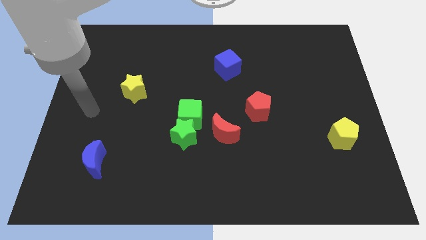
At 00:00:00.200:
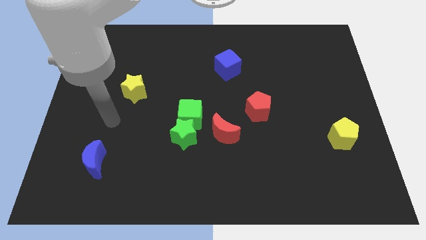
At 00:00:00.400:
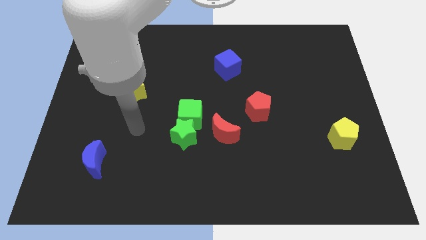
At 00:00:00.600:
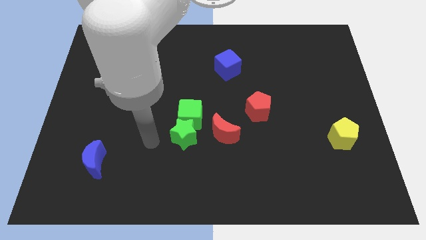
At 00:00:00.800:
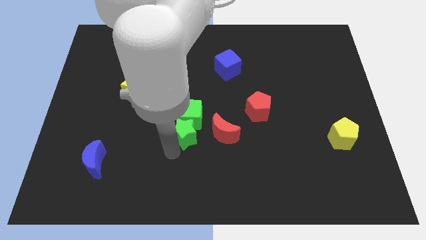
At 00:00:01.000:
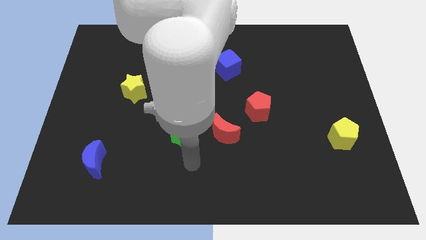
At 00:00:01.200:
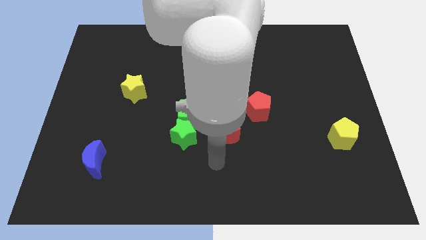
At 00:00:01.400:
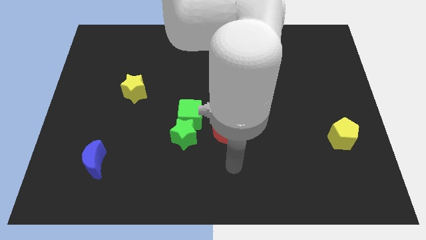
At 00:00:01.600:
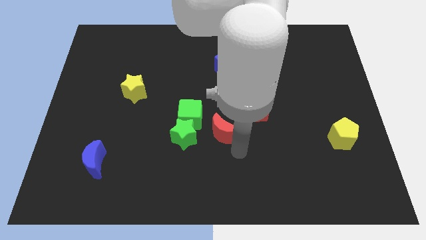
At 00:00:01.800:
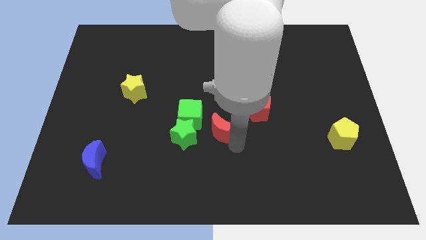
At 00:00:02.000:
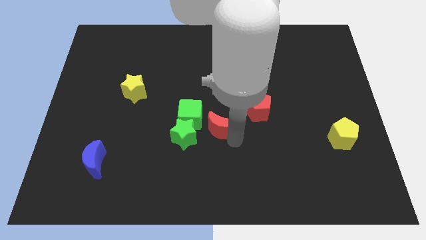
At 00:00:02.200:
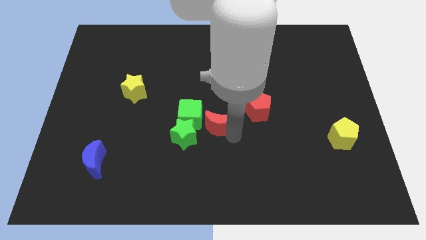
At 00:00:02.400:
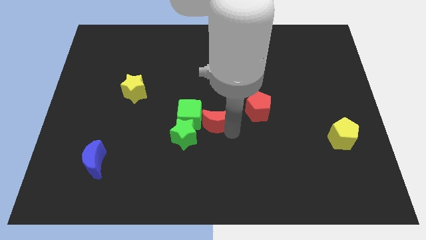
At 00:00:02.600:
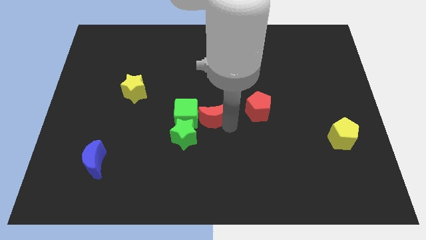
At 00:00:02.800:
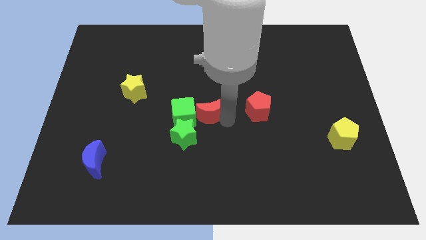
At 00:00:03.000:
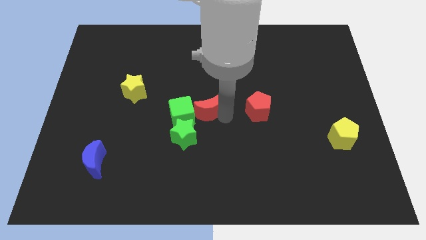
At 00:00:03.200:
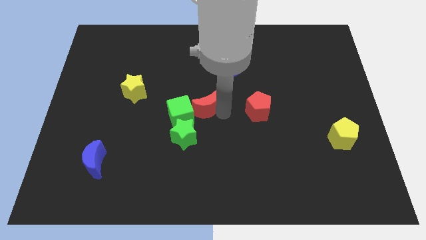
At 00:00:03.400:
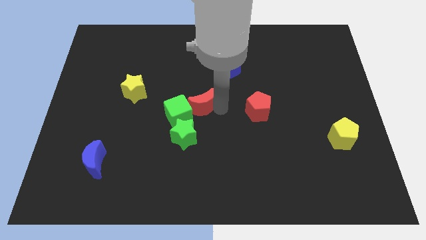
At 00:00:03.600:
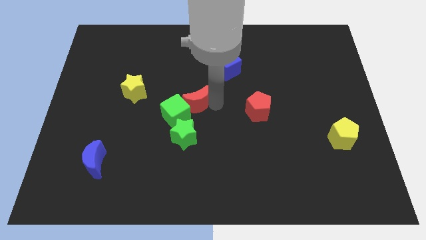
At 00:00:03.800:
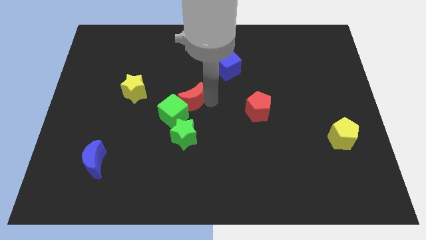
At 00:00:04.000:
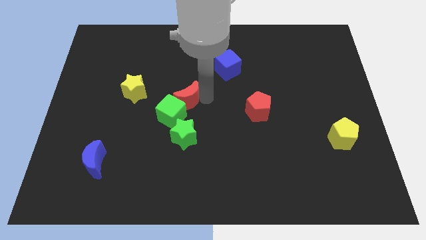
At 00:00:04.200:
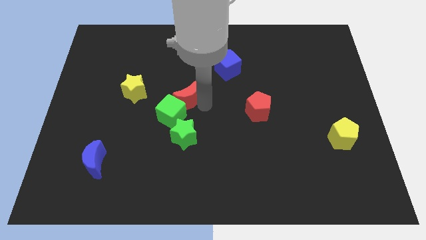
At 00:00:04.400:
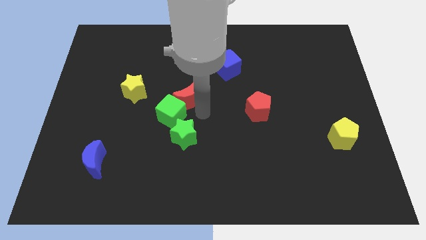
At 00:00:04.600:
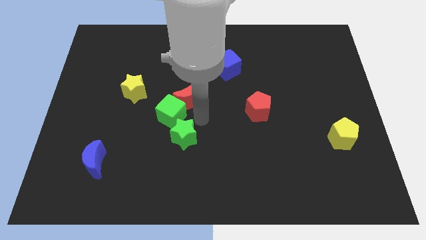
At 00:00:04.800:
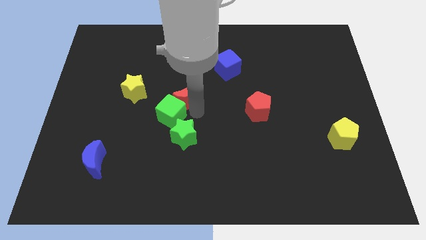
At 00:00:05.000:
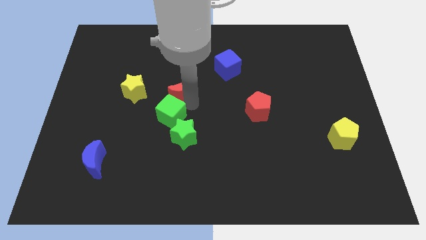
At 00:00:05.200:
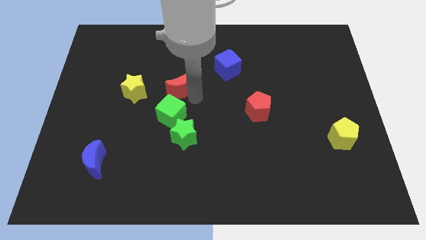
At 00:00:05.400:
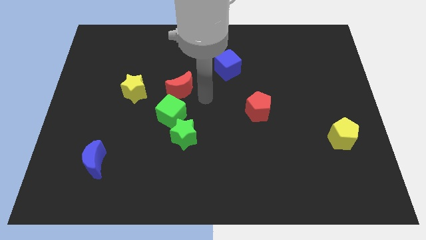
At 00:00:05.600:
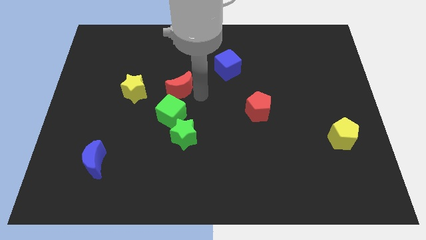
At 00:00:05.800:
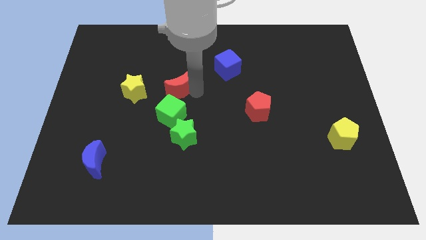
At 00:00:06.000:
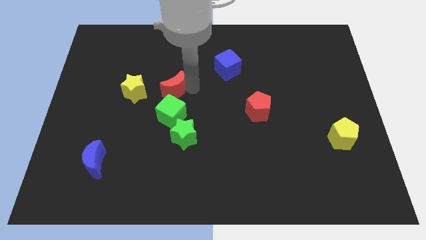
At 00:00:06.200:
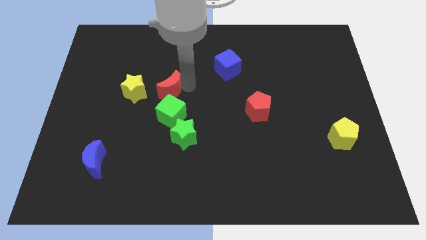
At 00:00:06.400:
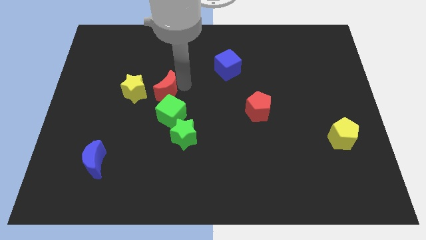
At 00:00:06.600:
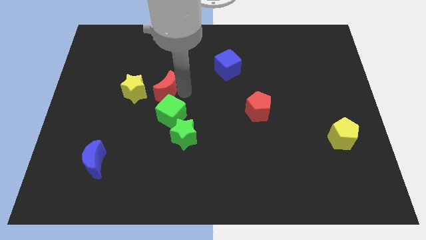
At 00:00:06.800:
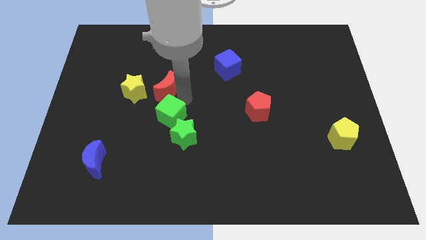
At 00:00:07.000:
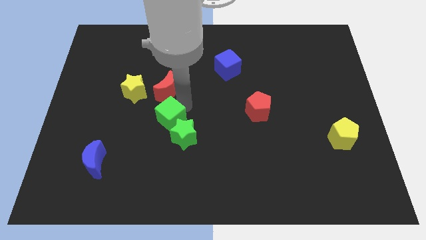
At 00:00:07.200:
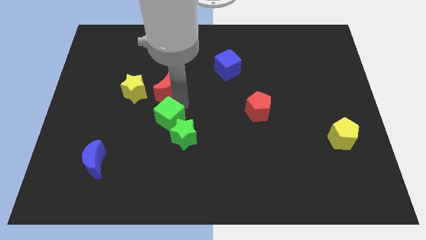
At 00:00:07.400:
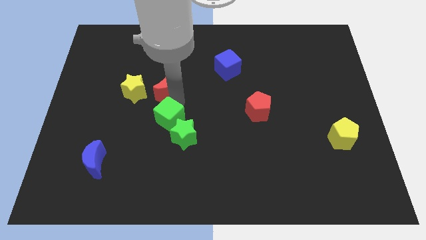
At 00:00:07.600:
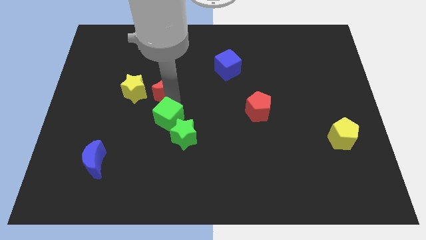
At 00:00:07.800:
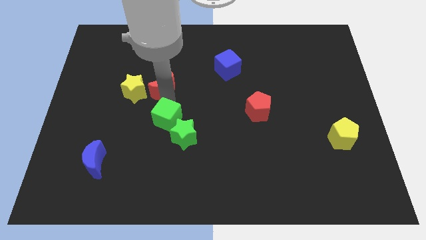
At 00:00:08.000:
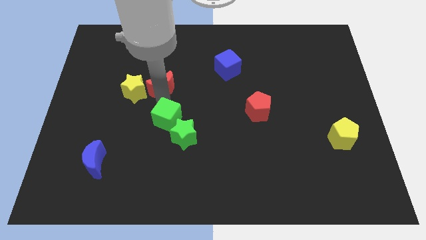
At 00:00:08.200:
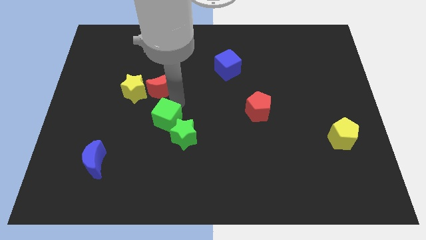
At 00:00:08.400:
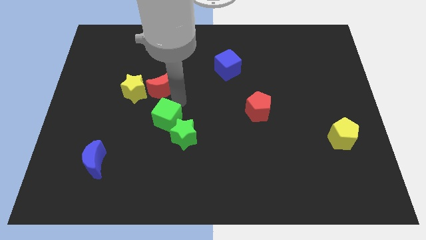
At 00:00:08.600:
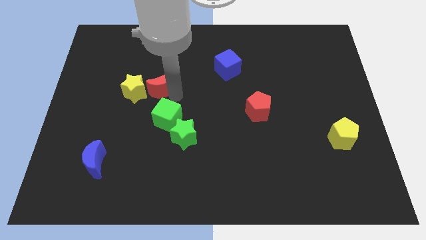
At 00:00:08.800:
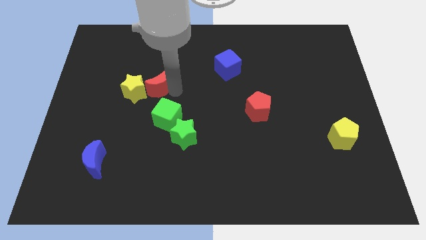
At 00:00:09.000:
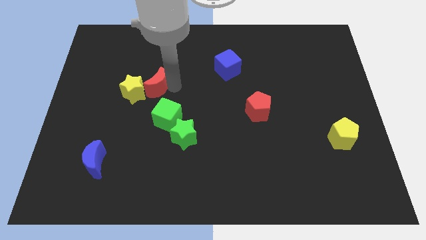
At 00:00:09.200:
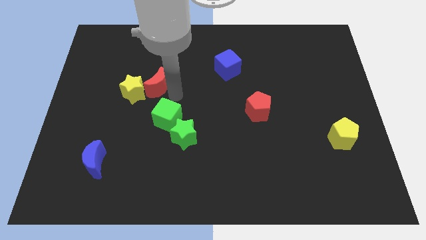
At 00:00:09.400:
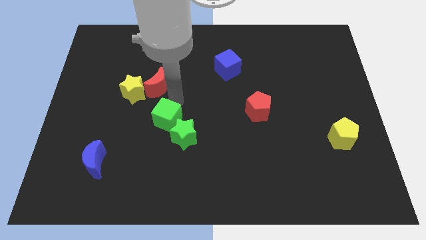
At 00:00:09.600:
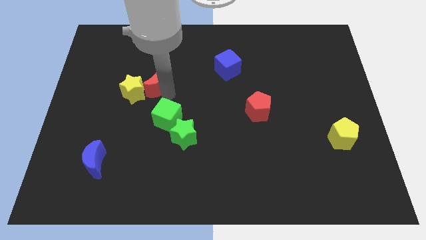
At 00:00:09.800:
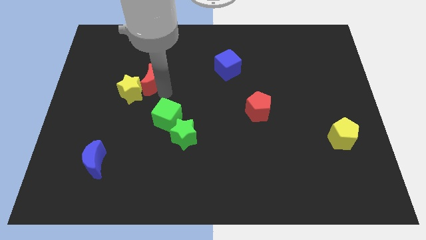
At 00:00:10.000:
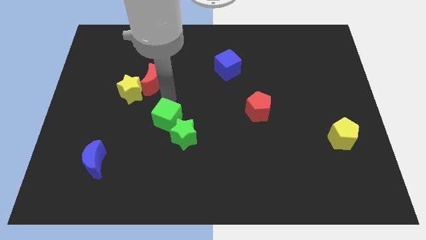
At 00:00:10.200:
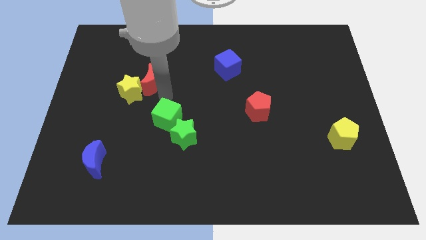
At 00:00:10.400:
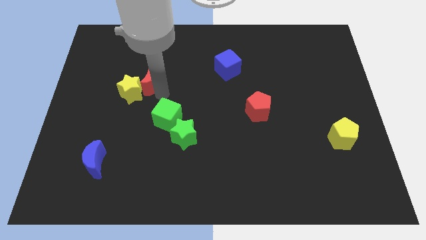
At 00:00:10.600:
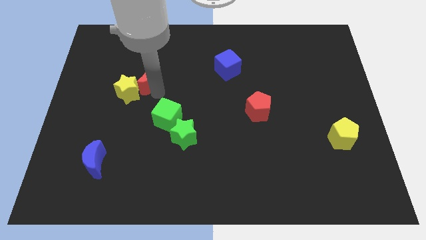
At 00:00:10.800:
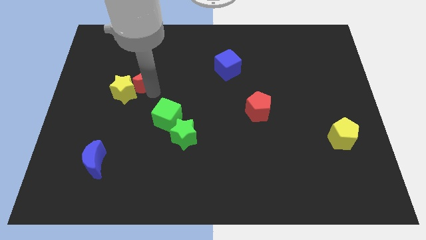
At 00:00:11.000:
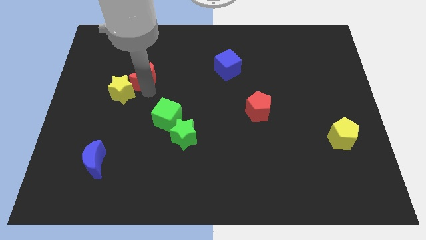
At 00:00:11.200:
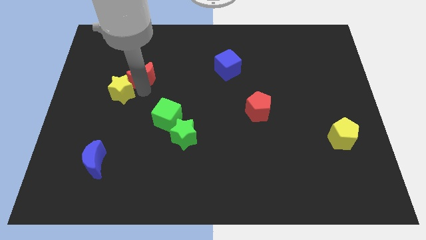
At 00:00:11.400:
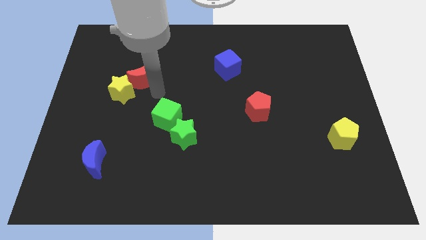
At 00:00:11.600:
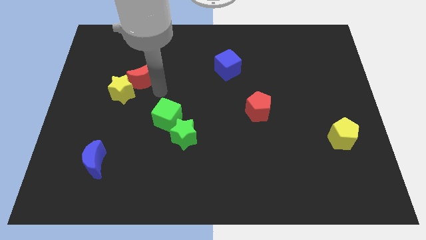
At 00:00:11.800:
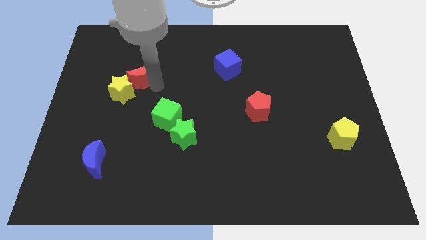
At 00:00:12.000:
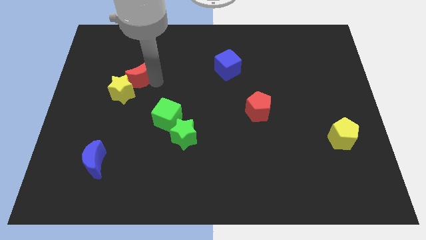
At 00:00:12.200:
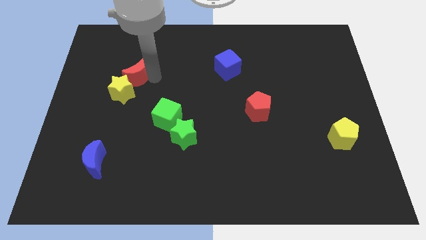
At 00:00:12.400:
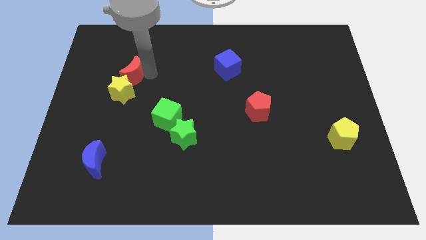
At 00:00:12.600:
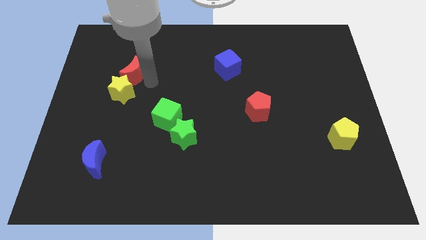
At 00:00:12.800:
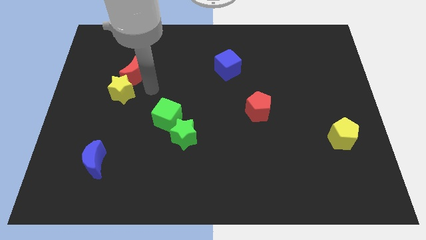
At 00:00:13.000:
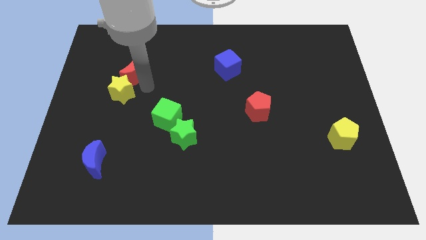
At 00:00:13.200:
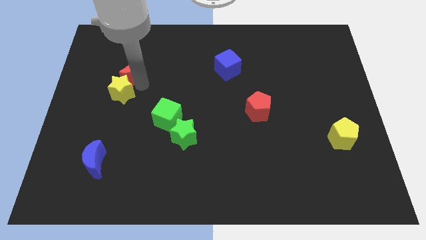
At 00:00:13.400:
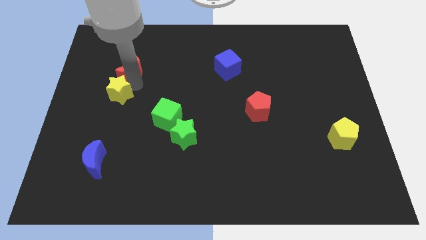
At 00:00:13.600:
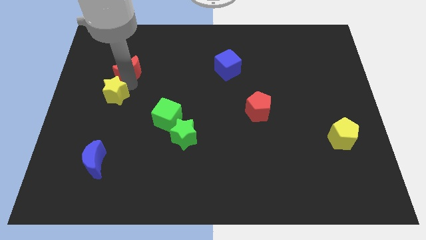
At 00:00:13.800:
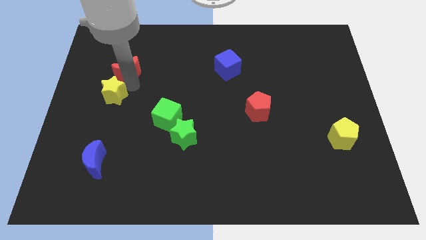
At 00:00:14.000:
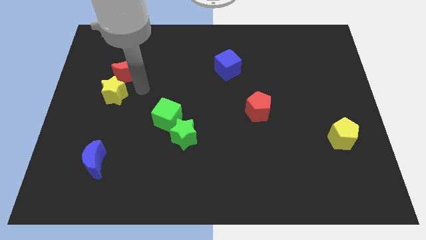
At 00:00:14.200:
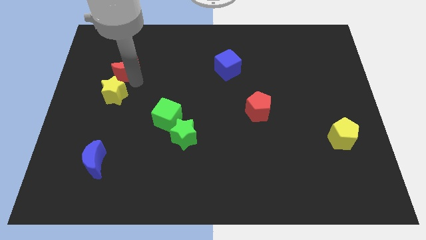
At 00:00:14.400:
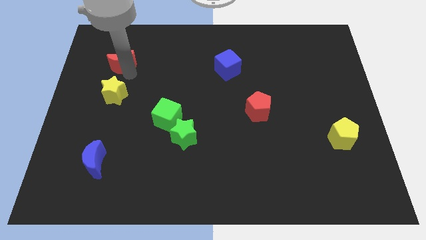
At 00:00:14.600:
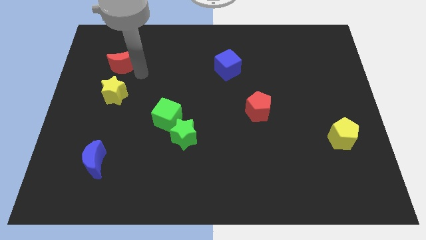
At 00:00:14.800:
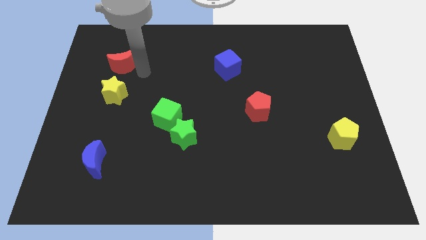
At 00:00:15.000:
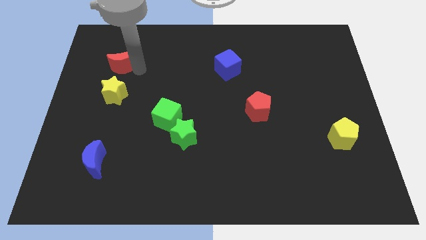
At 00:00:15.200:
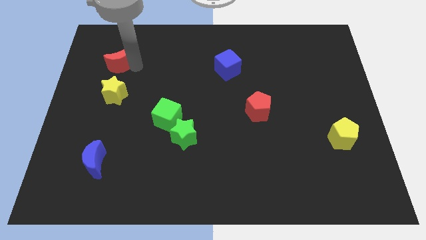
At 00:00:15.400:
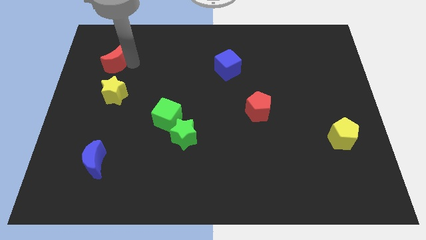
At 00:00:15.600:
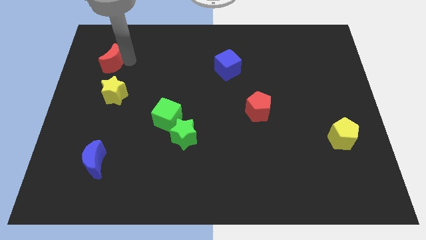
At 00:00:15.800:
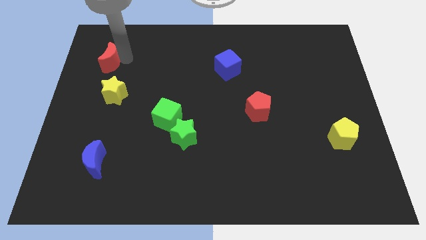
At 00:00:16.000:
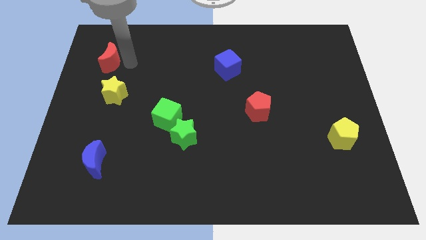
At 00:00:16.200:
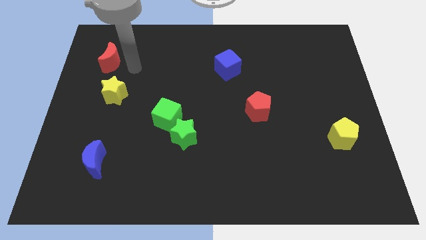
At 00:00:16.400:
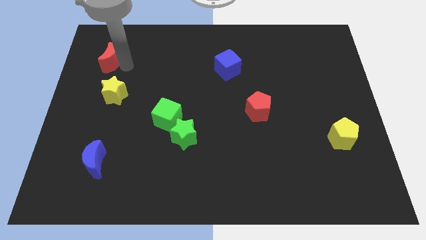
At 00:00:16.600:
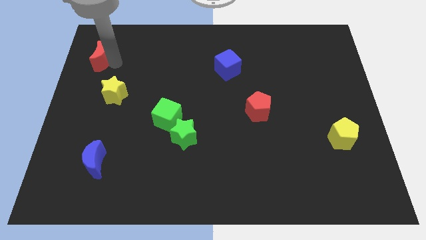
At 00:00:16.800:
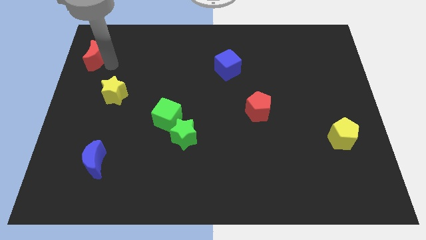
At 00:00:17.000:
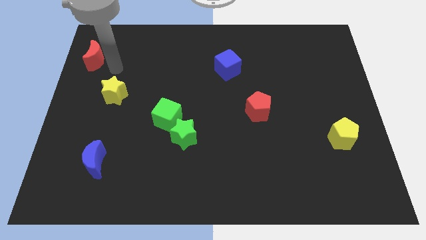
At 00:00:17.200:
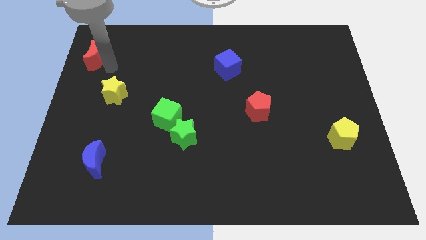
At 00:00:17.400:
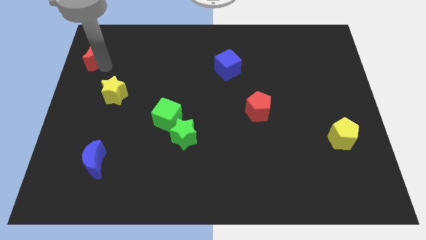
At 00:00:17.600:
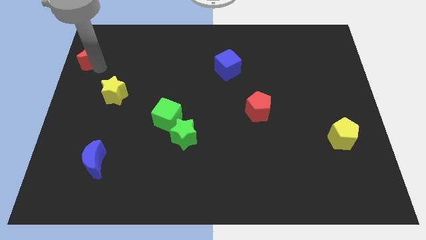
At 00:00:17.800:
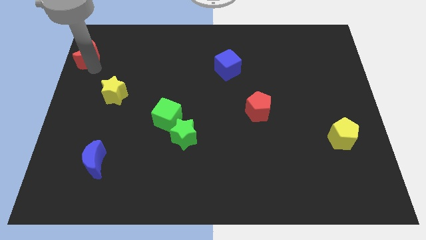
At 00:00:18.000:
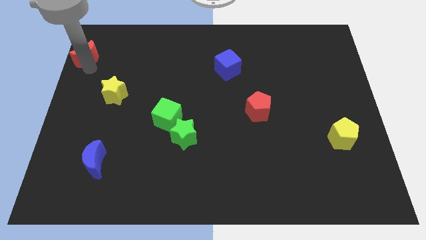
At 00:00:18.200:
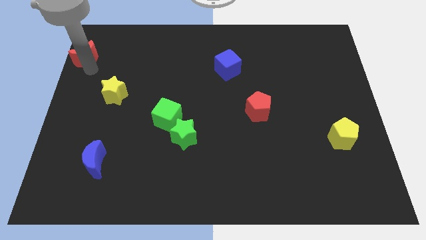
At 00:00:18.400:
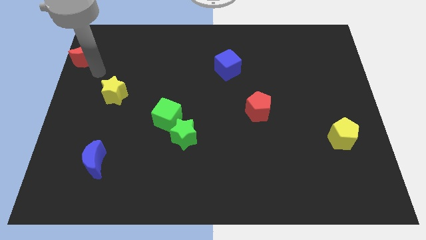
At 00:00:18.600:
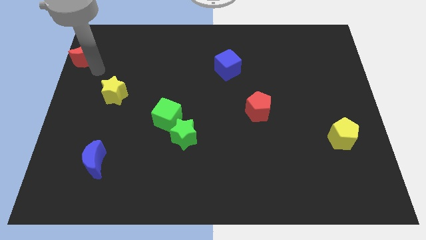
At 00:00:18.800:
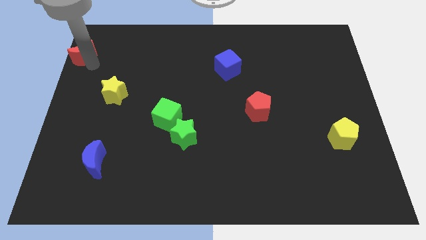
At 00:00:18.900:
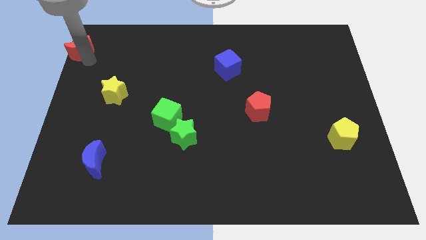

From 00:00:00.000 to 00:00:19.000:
put the red moon to the top left
